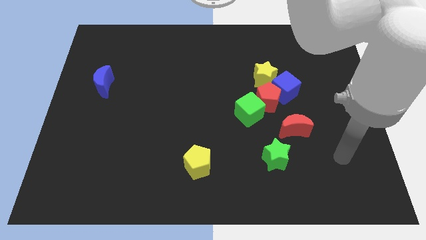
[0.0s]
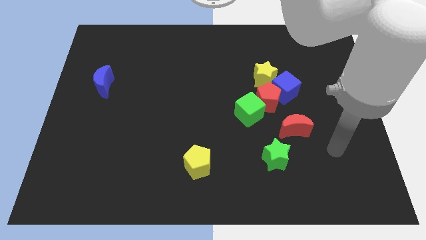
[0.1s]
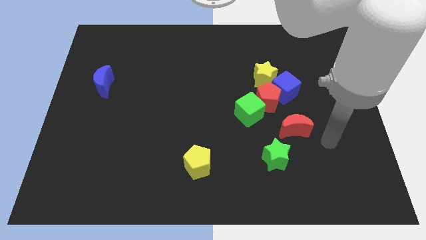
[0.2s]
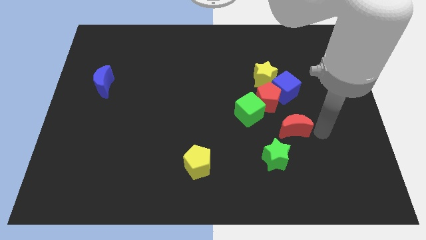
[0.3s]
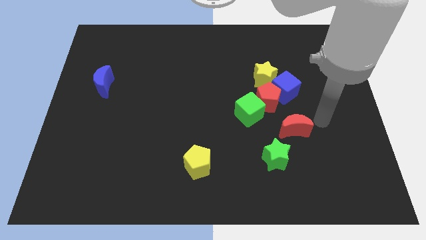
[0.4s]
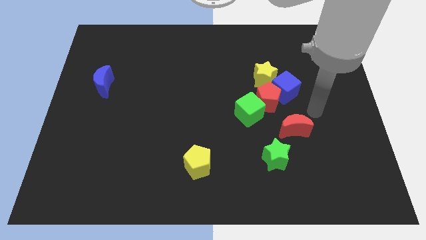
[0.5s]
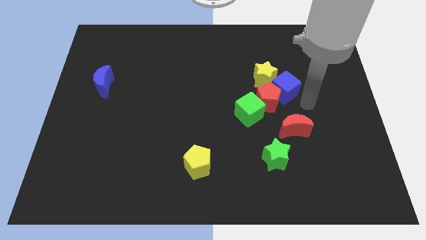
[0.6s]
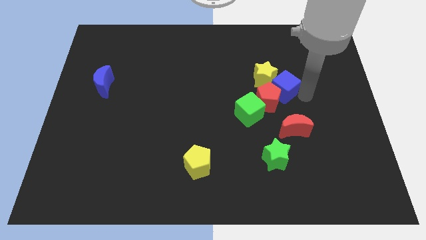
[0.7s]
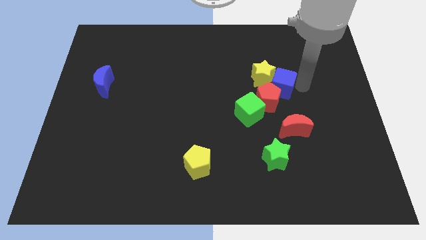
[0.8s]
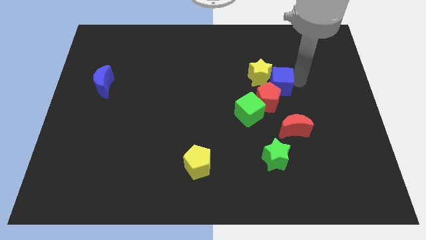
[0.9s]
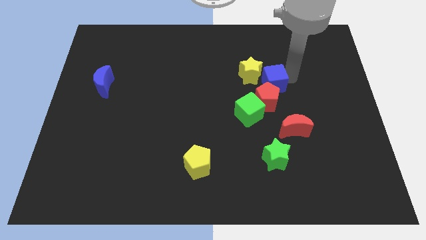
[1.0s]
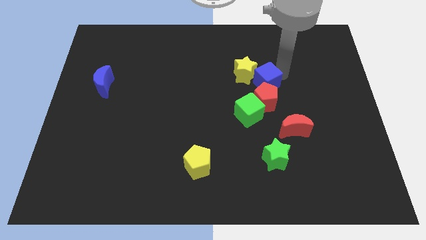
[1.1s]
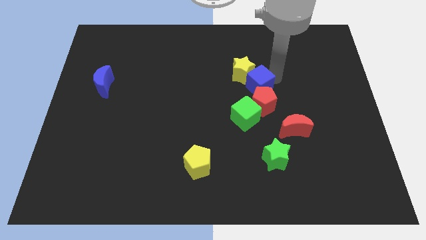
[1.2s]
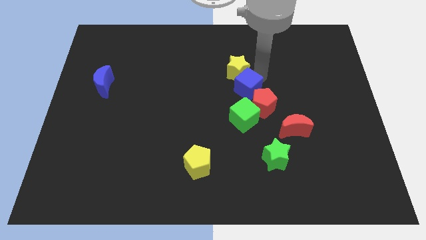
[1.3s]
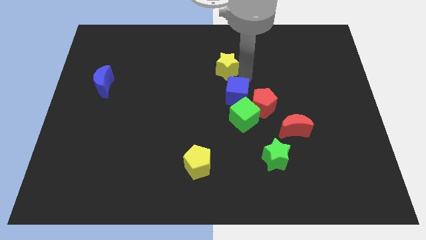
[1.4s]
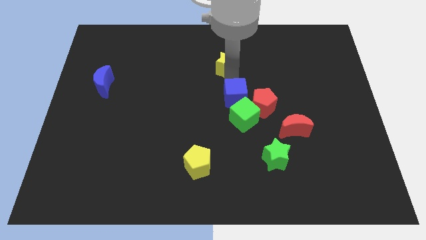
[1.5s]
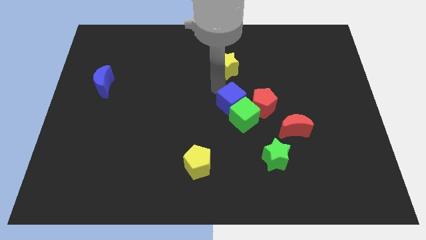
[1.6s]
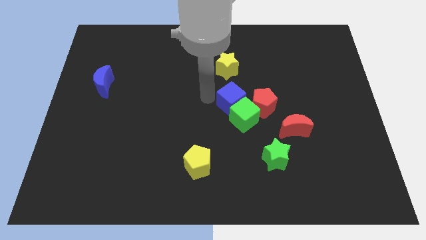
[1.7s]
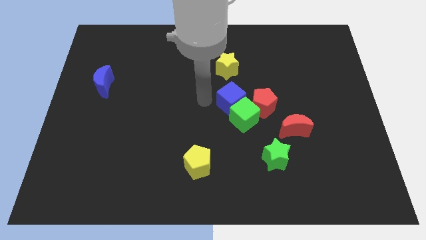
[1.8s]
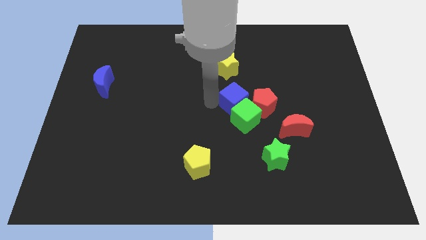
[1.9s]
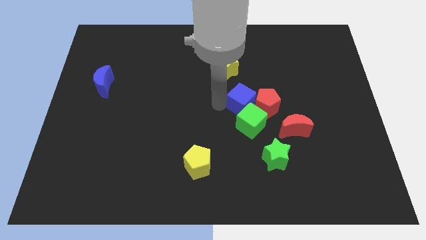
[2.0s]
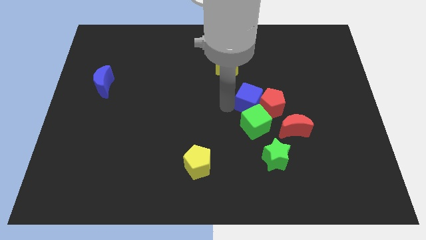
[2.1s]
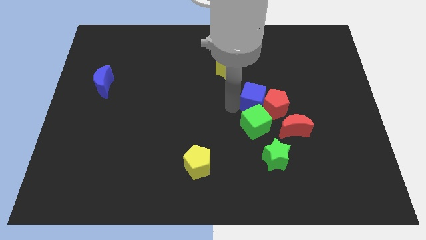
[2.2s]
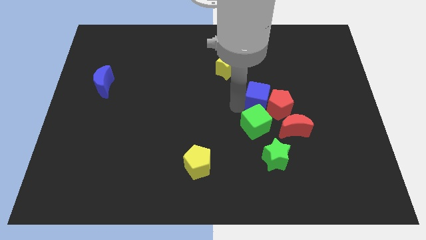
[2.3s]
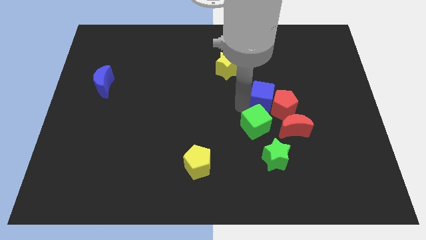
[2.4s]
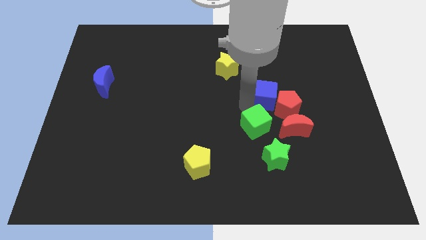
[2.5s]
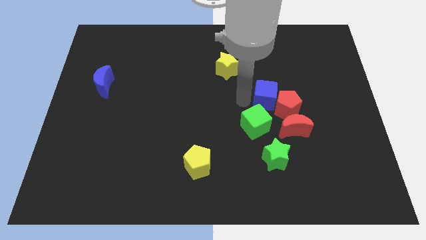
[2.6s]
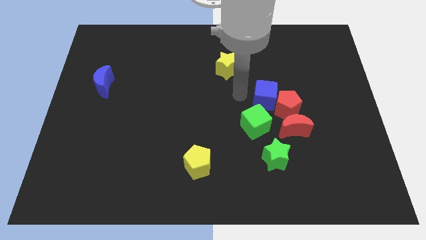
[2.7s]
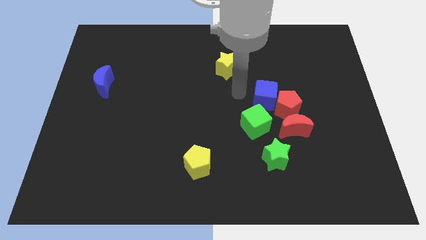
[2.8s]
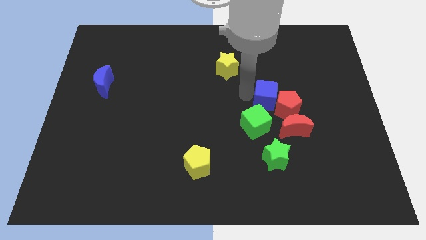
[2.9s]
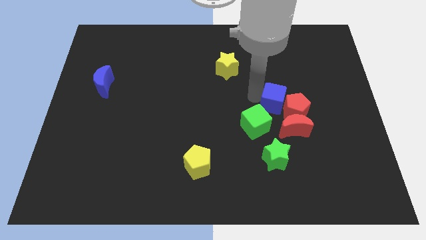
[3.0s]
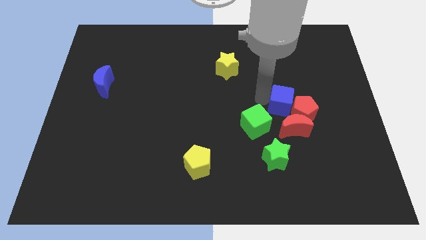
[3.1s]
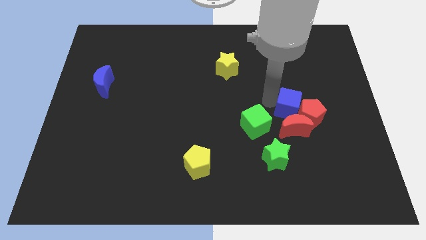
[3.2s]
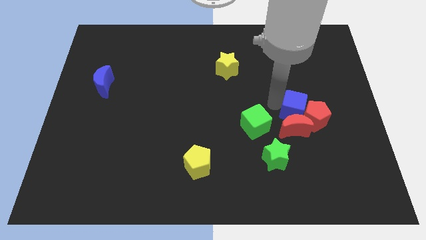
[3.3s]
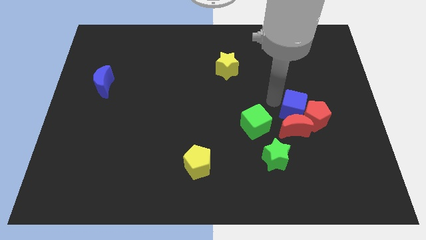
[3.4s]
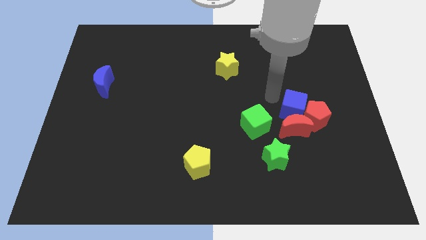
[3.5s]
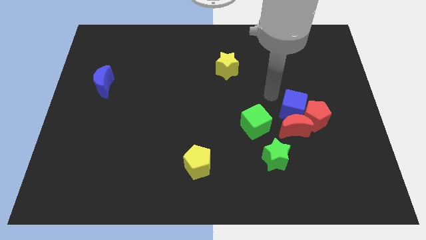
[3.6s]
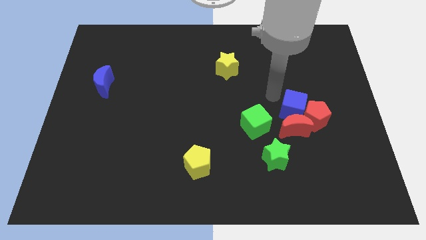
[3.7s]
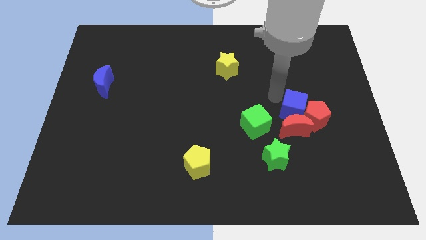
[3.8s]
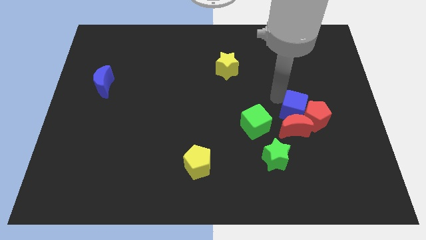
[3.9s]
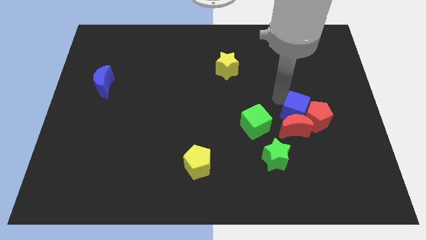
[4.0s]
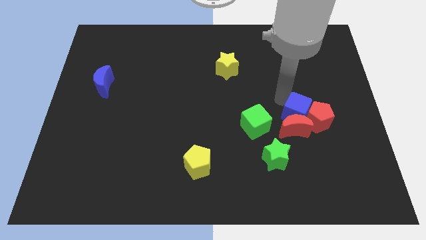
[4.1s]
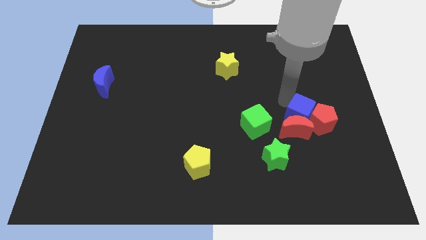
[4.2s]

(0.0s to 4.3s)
slide the blue cube down a little bit

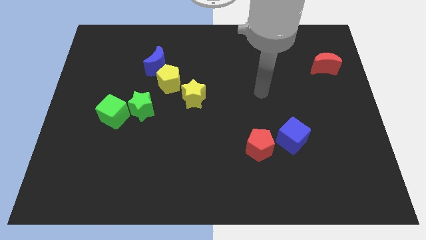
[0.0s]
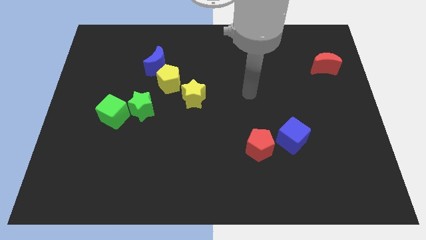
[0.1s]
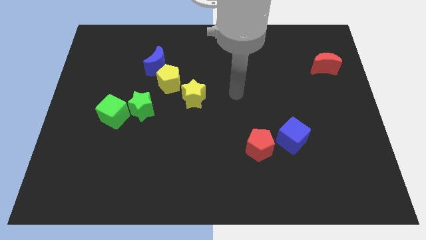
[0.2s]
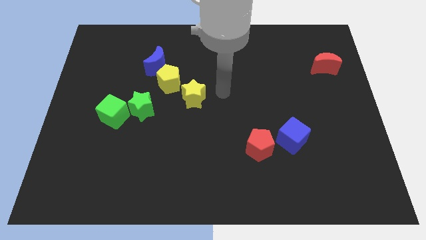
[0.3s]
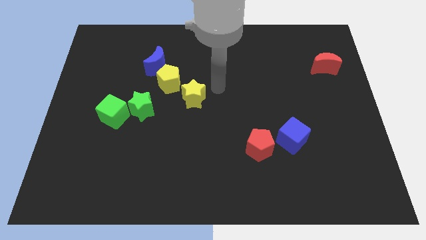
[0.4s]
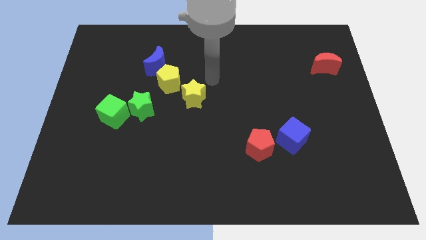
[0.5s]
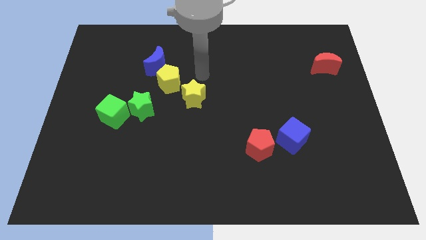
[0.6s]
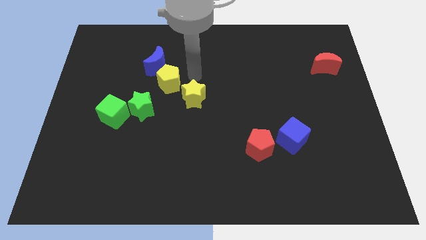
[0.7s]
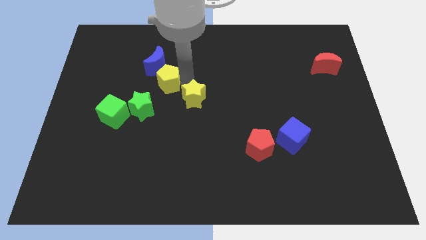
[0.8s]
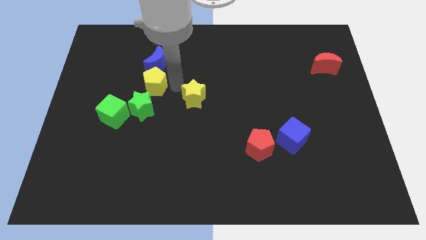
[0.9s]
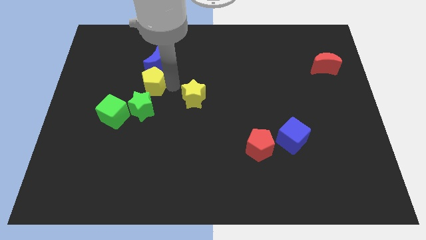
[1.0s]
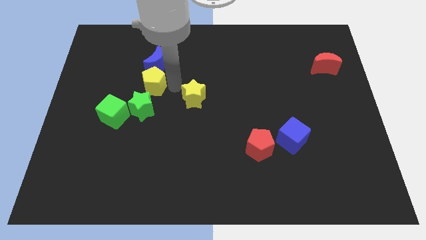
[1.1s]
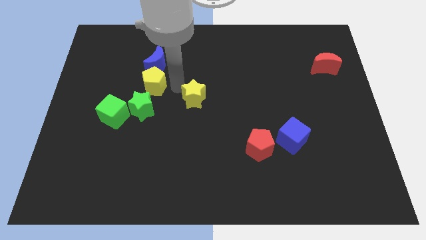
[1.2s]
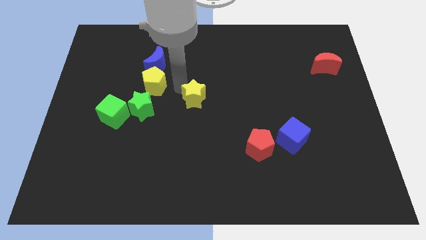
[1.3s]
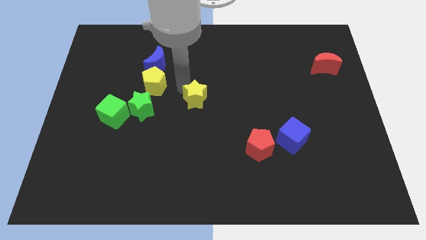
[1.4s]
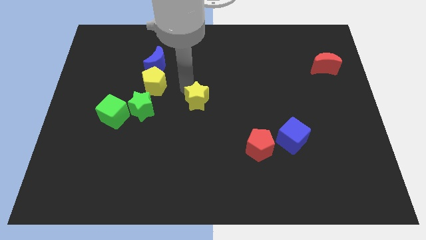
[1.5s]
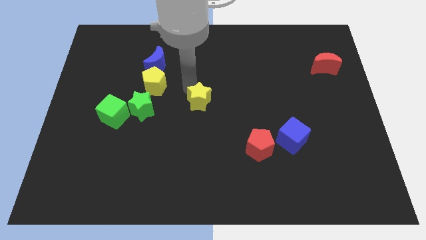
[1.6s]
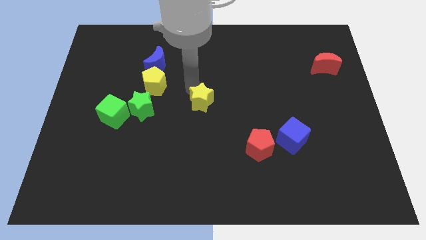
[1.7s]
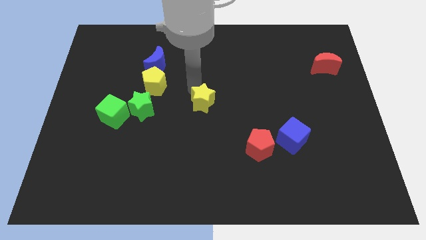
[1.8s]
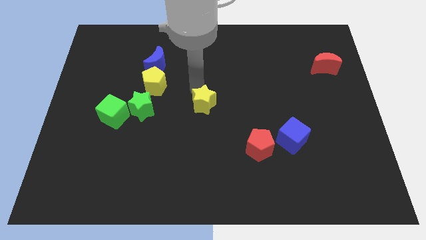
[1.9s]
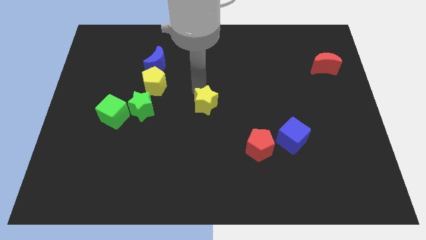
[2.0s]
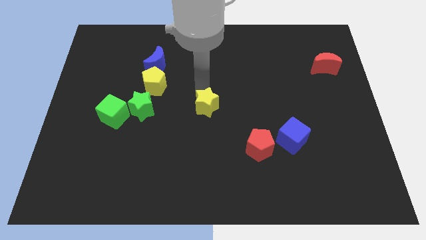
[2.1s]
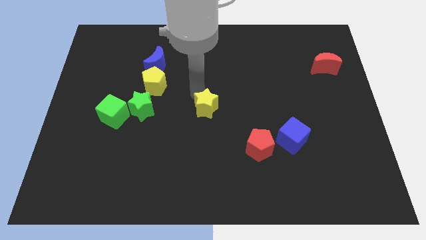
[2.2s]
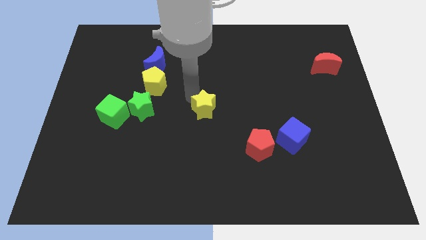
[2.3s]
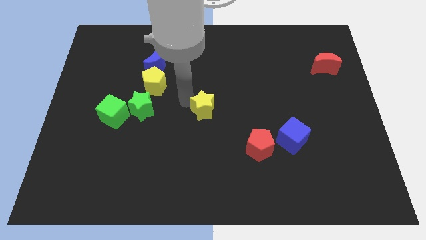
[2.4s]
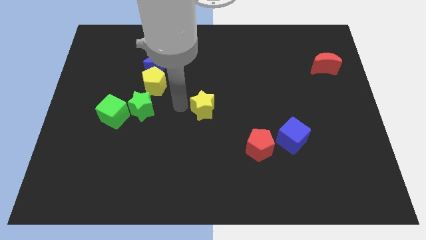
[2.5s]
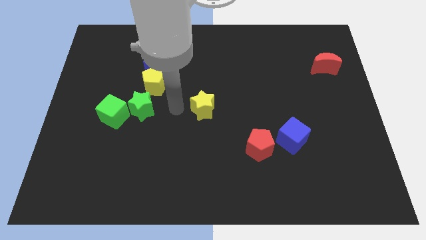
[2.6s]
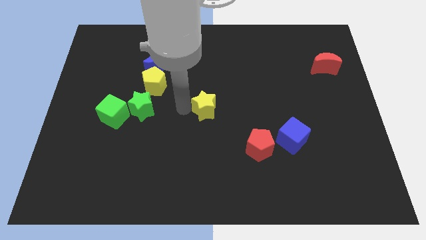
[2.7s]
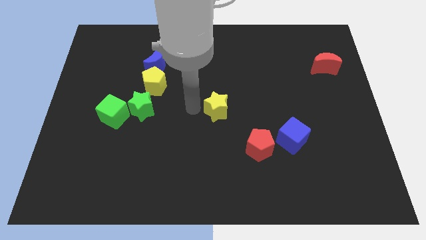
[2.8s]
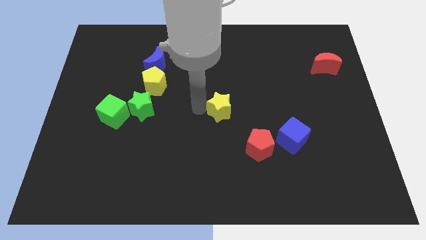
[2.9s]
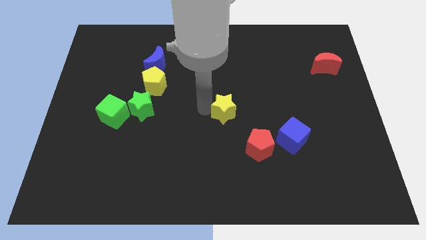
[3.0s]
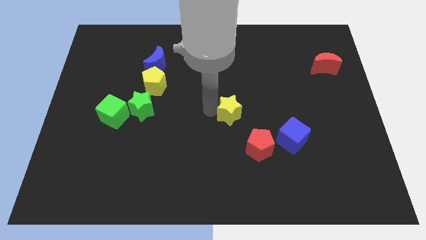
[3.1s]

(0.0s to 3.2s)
slide the yellow star right slightly

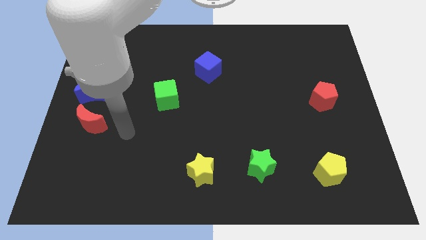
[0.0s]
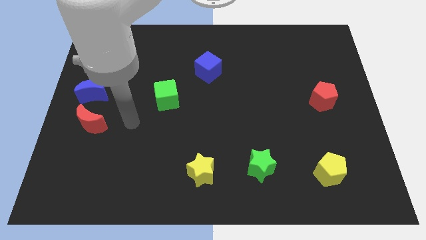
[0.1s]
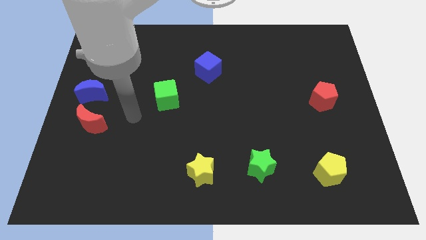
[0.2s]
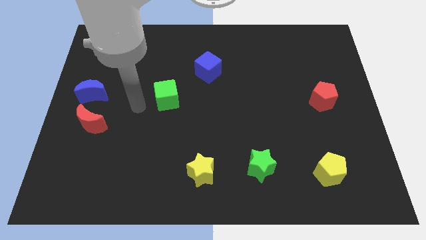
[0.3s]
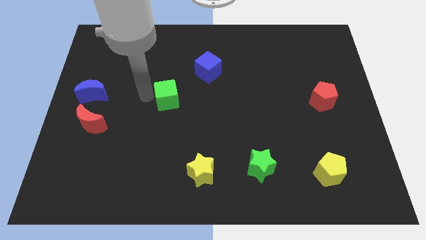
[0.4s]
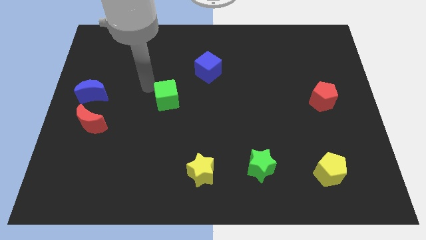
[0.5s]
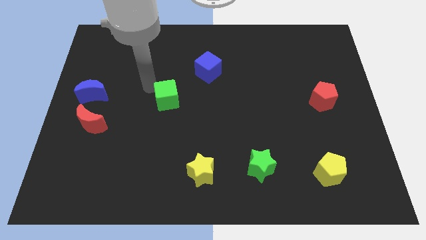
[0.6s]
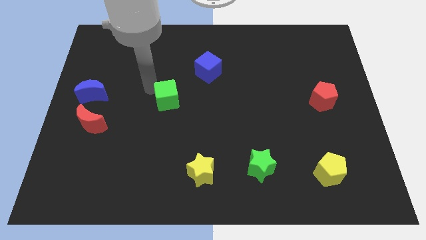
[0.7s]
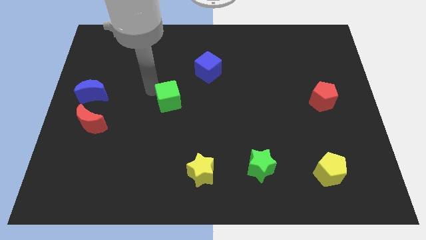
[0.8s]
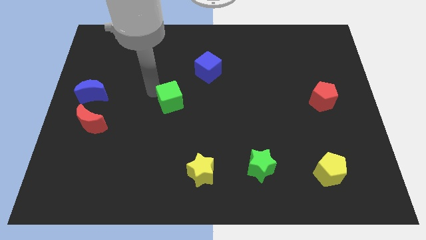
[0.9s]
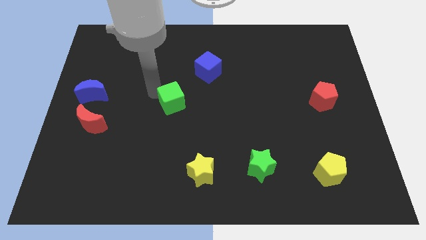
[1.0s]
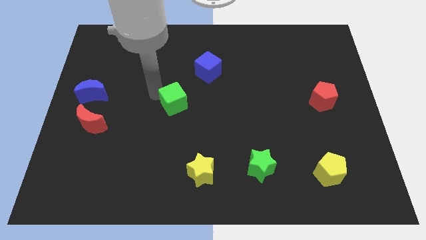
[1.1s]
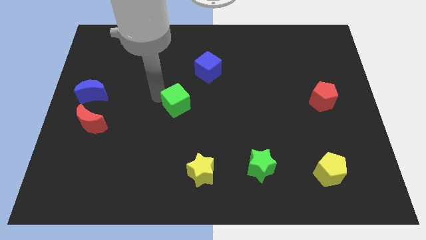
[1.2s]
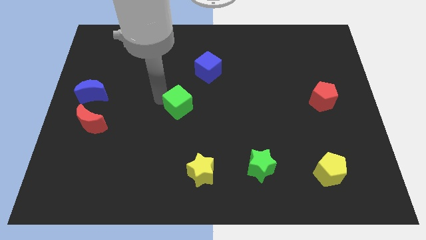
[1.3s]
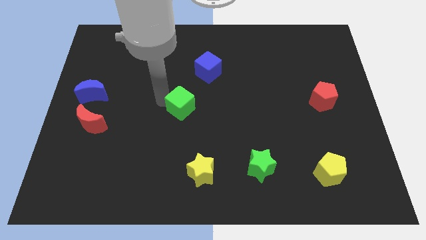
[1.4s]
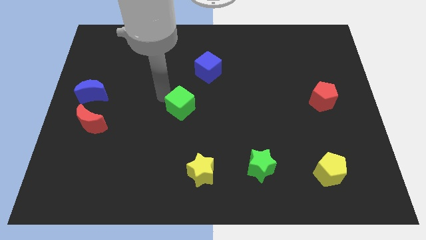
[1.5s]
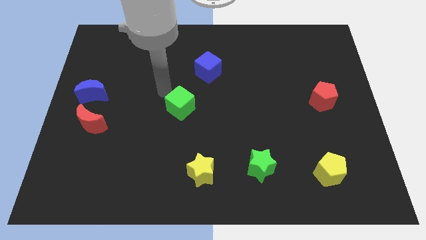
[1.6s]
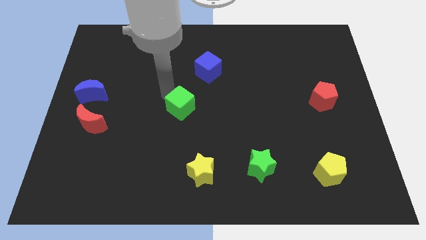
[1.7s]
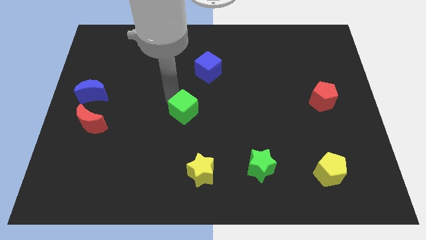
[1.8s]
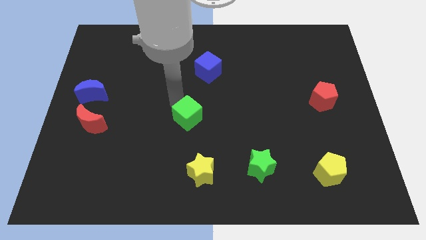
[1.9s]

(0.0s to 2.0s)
slightly move the green cube down and then right
